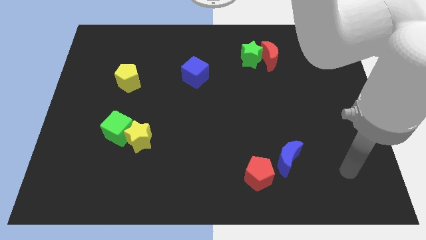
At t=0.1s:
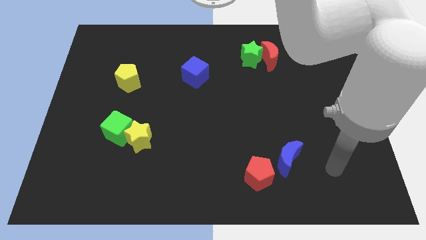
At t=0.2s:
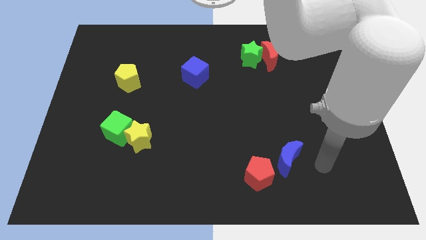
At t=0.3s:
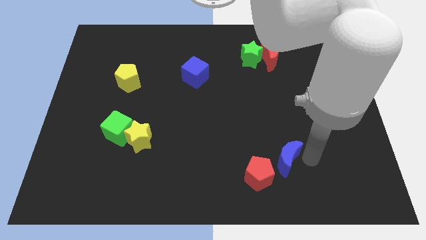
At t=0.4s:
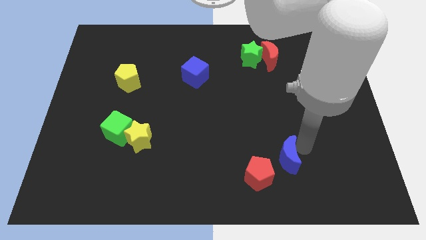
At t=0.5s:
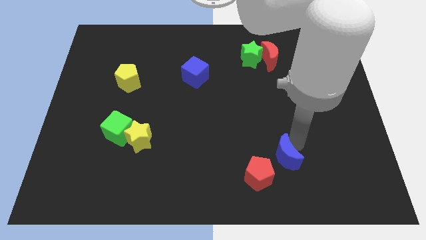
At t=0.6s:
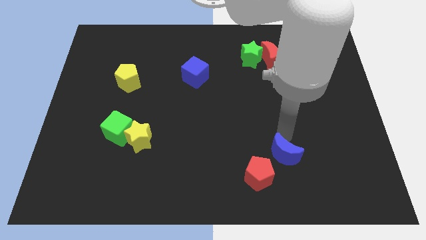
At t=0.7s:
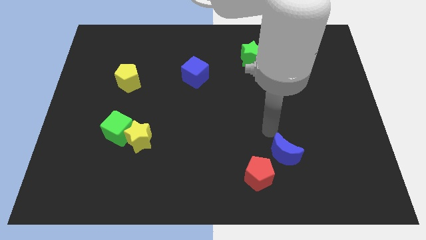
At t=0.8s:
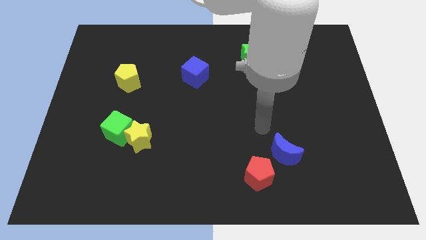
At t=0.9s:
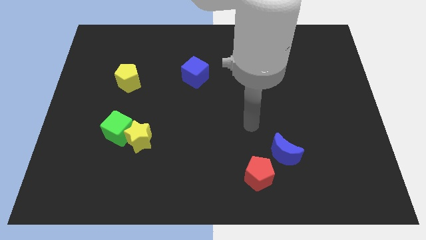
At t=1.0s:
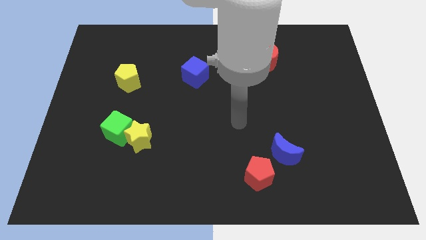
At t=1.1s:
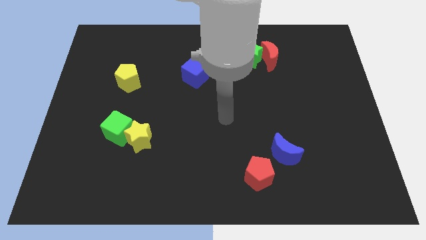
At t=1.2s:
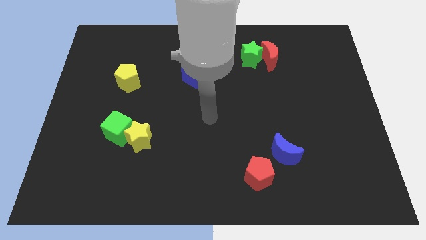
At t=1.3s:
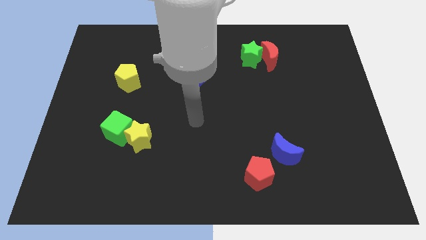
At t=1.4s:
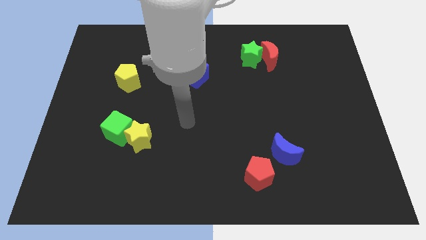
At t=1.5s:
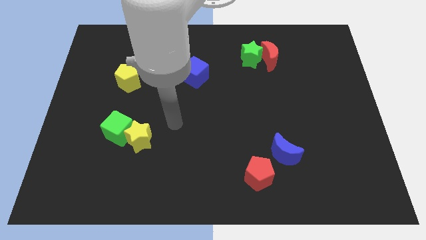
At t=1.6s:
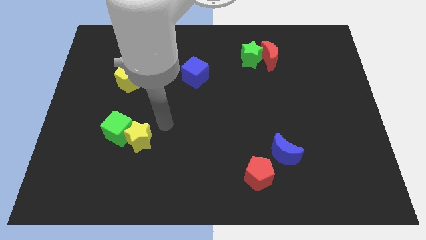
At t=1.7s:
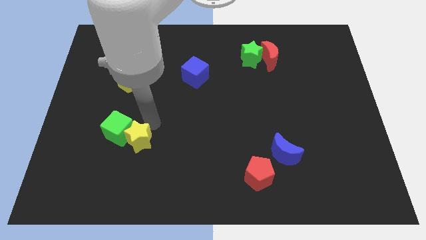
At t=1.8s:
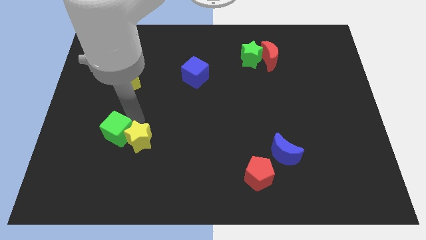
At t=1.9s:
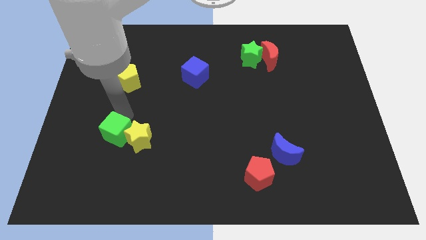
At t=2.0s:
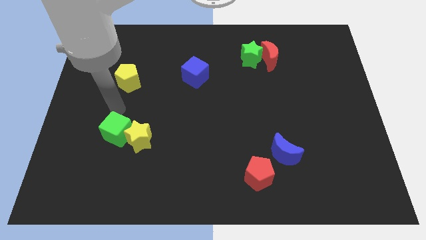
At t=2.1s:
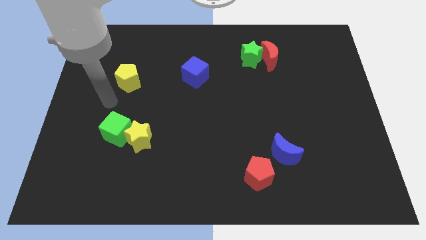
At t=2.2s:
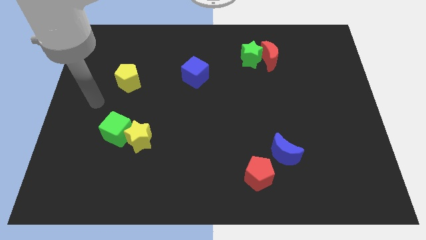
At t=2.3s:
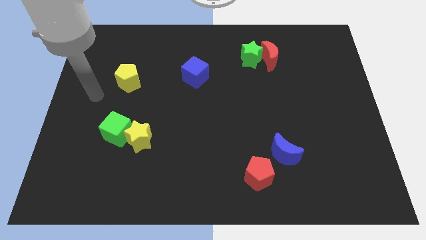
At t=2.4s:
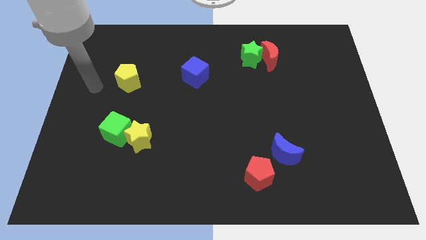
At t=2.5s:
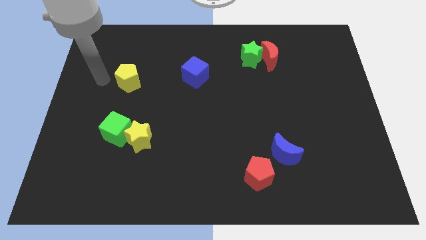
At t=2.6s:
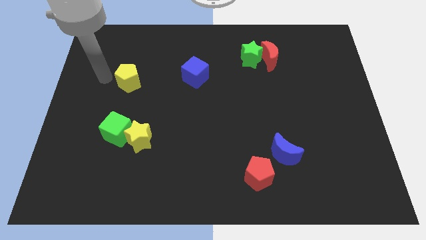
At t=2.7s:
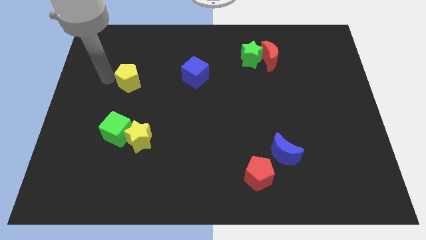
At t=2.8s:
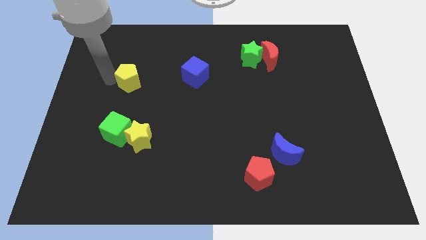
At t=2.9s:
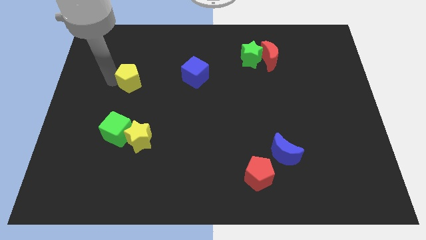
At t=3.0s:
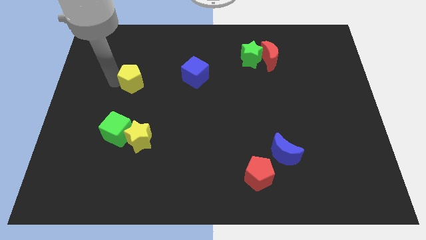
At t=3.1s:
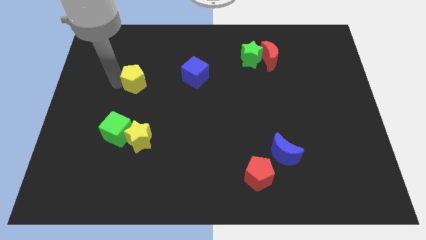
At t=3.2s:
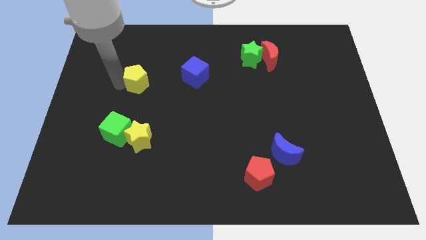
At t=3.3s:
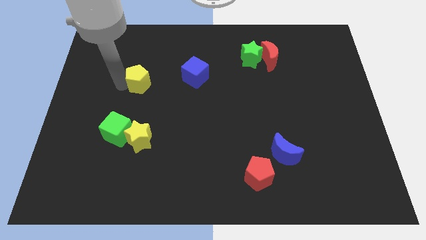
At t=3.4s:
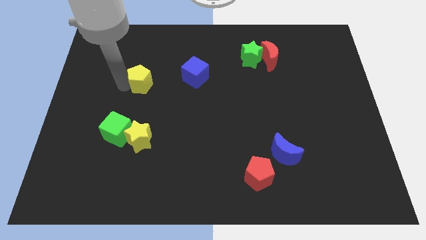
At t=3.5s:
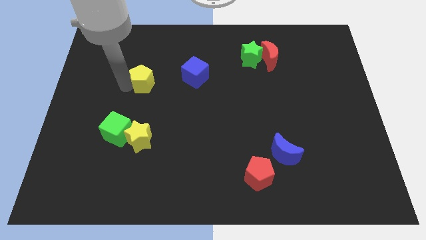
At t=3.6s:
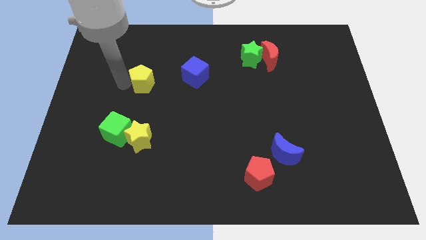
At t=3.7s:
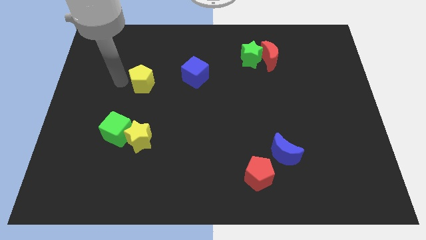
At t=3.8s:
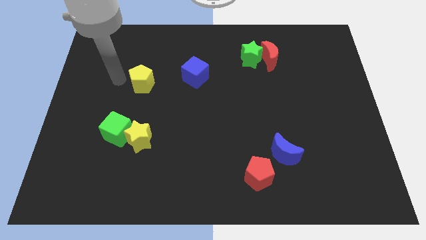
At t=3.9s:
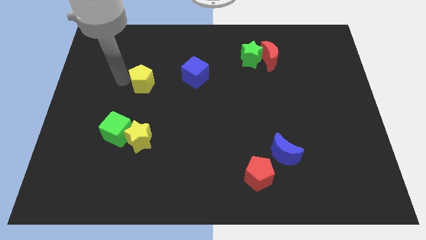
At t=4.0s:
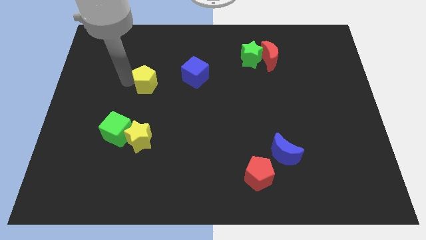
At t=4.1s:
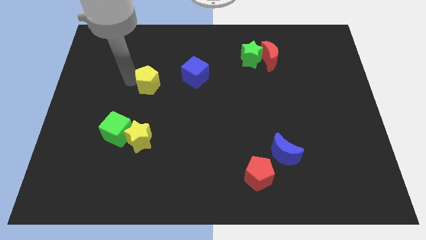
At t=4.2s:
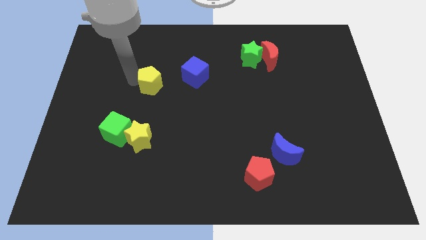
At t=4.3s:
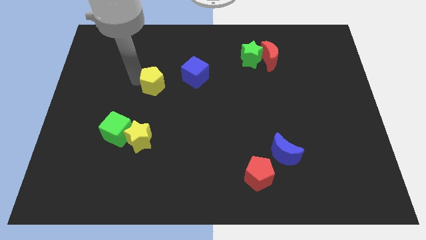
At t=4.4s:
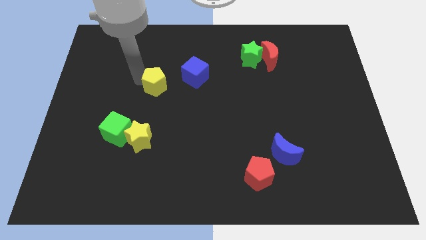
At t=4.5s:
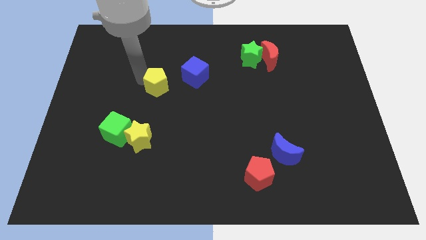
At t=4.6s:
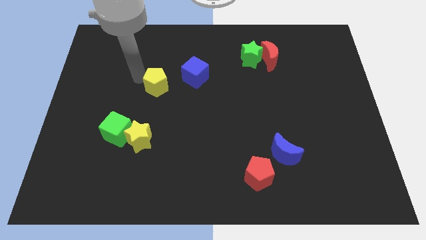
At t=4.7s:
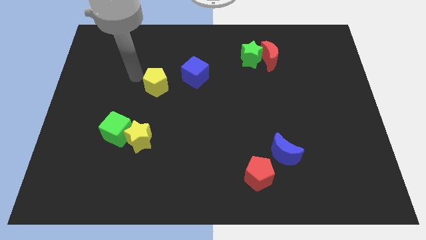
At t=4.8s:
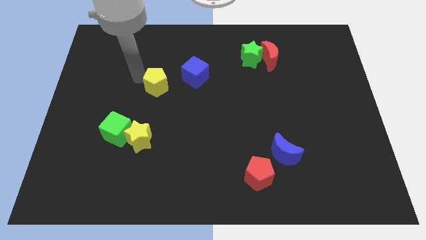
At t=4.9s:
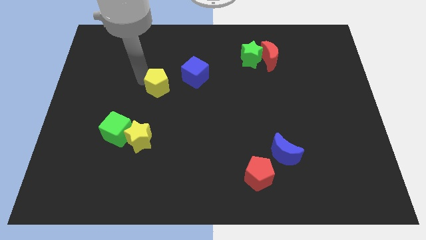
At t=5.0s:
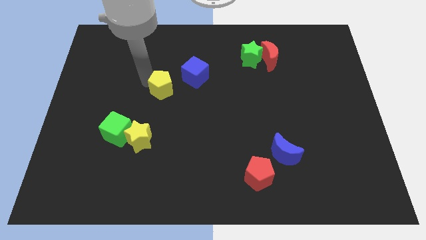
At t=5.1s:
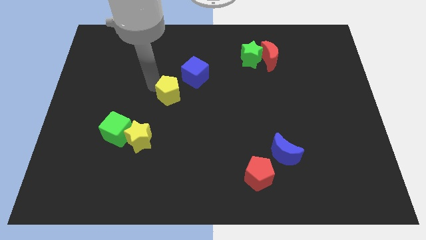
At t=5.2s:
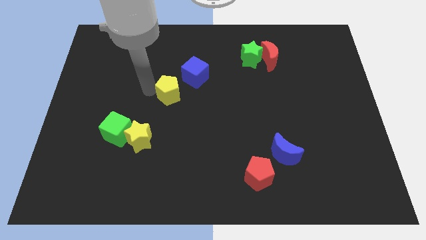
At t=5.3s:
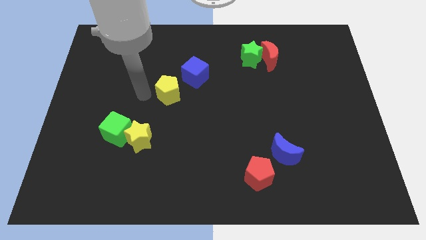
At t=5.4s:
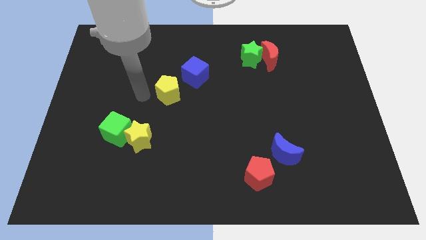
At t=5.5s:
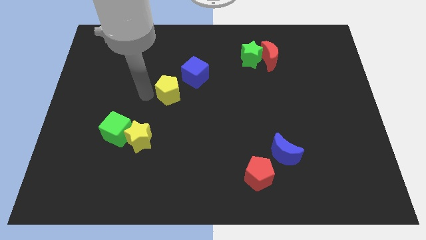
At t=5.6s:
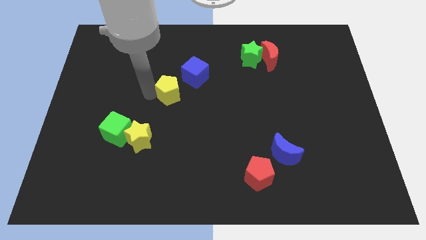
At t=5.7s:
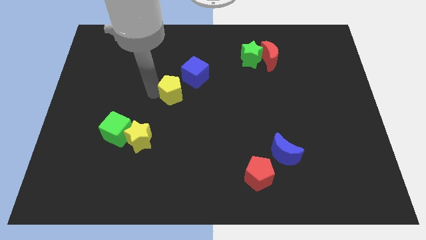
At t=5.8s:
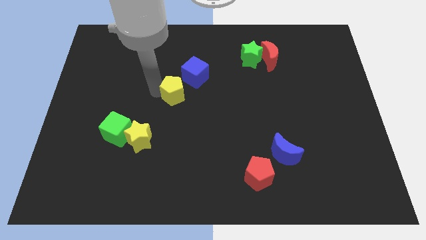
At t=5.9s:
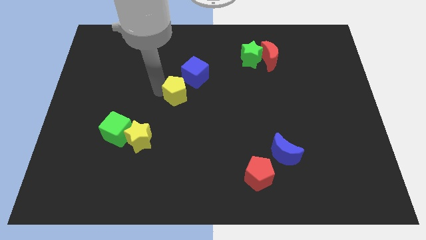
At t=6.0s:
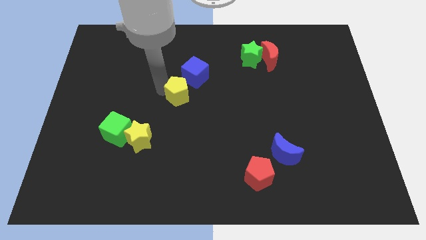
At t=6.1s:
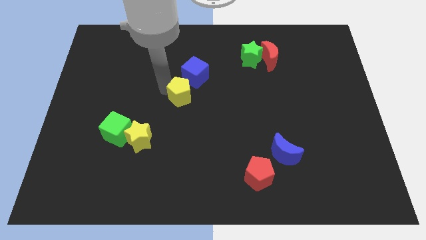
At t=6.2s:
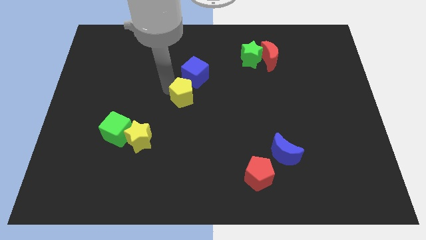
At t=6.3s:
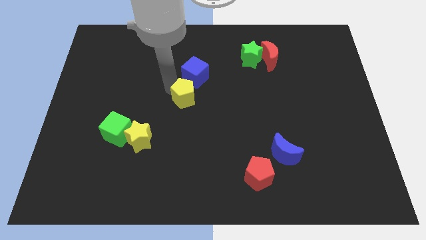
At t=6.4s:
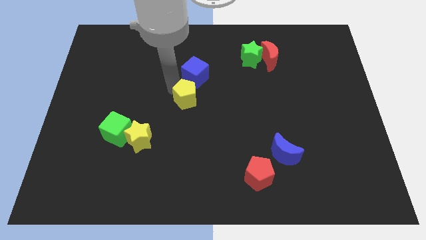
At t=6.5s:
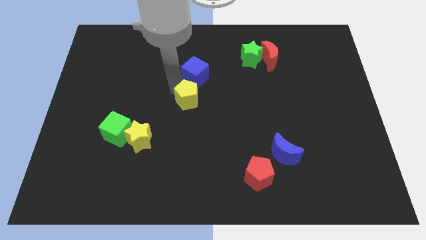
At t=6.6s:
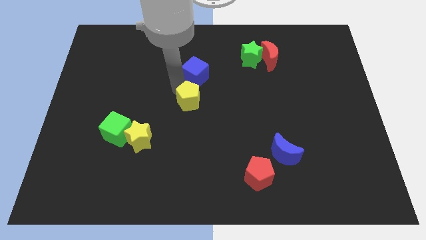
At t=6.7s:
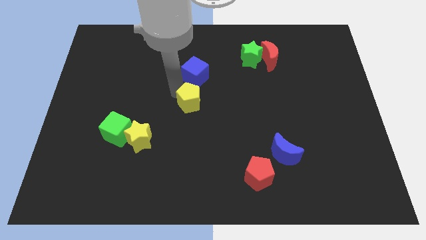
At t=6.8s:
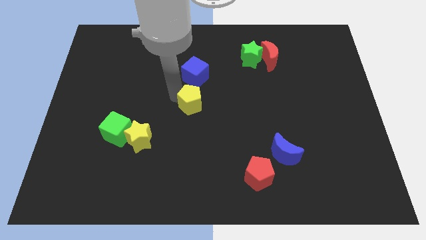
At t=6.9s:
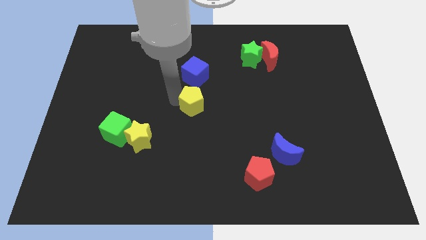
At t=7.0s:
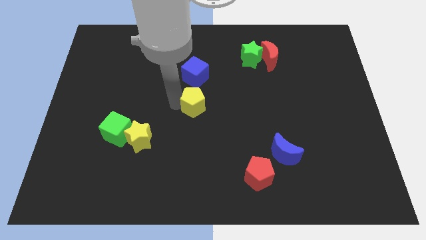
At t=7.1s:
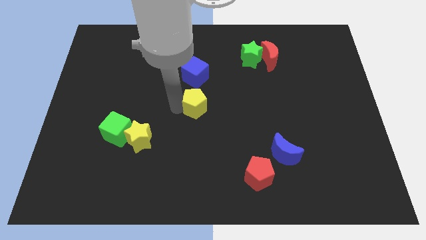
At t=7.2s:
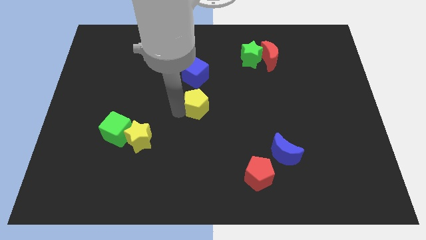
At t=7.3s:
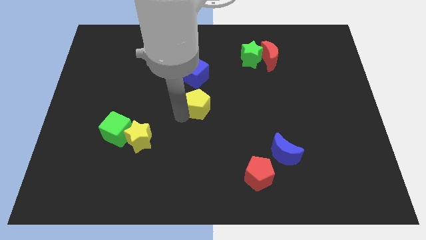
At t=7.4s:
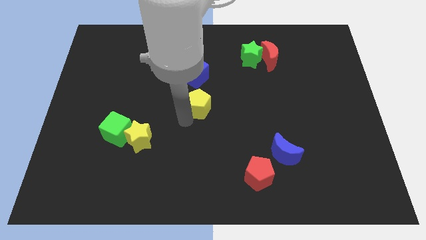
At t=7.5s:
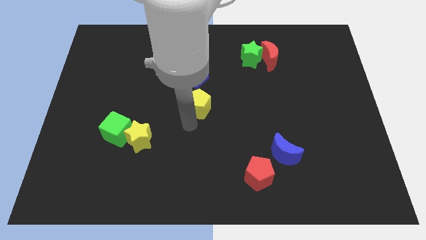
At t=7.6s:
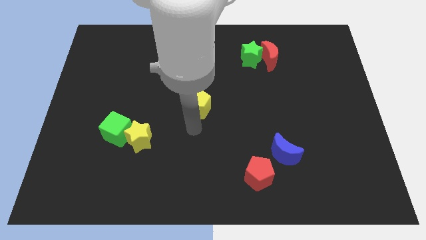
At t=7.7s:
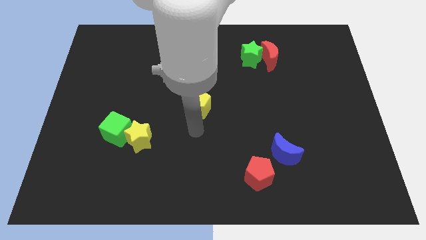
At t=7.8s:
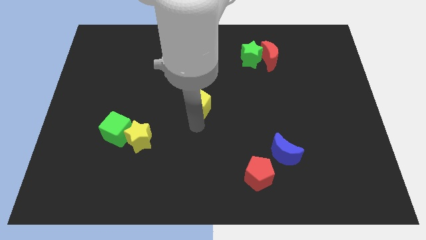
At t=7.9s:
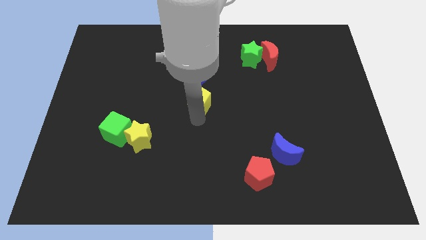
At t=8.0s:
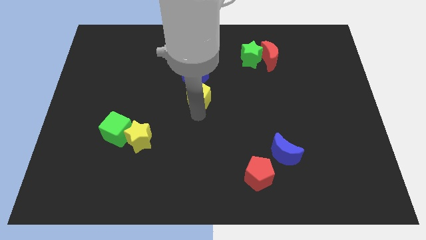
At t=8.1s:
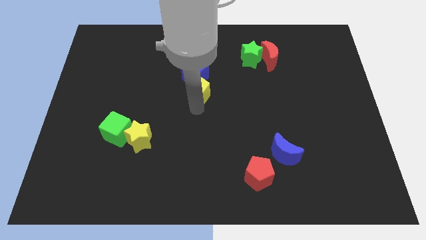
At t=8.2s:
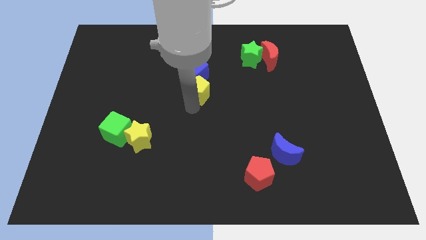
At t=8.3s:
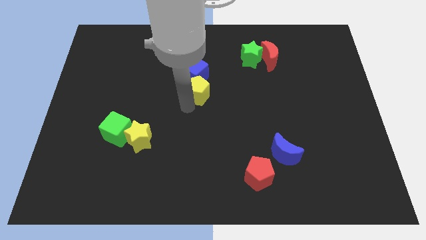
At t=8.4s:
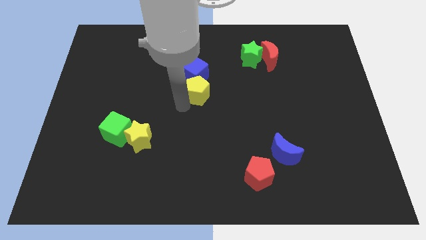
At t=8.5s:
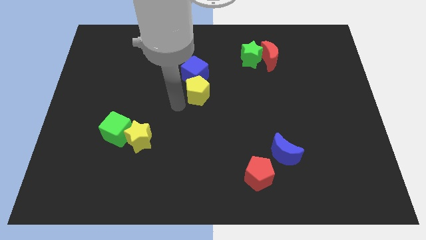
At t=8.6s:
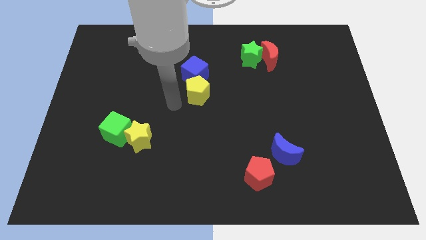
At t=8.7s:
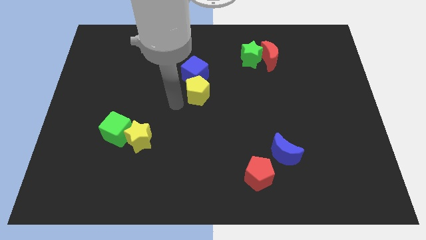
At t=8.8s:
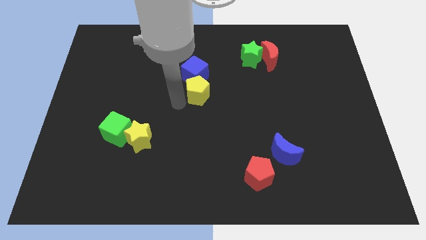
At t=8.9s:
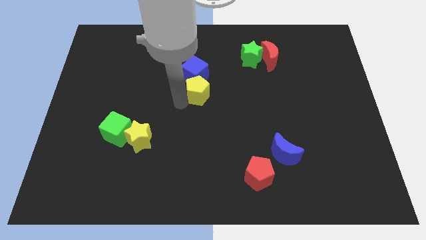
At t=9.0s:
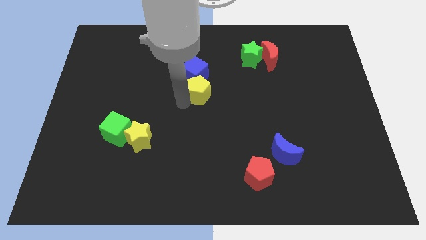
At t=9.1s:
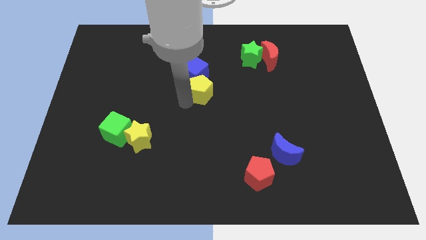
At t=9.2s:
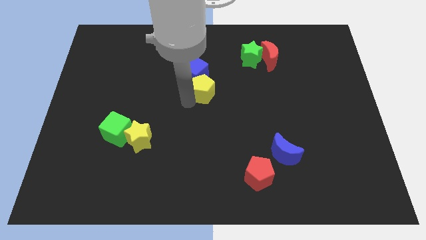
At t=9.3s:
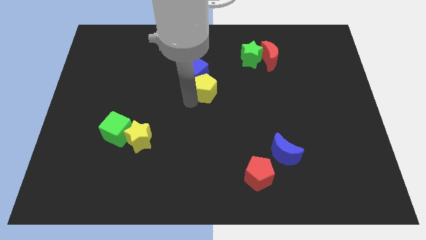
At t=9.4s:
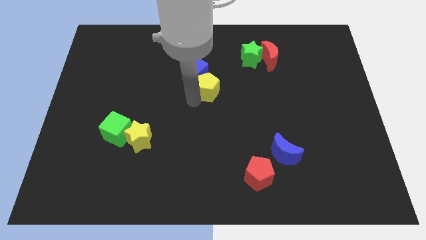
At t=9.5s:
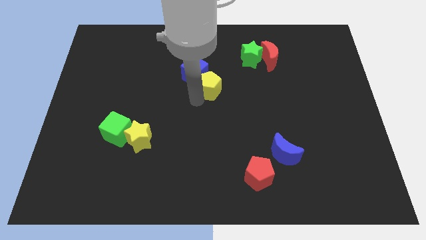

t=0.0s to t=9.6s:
slide the yellow pentagon to the right
